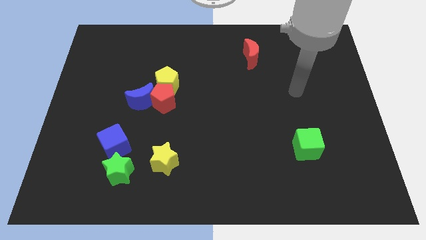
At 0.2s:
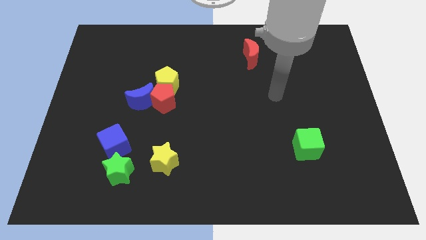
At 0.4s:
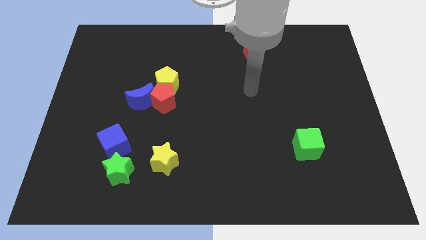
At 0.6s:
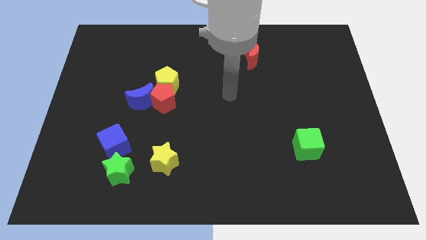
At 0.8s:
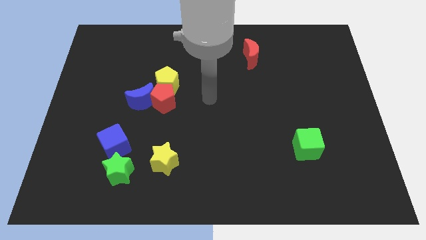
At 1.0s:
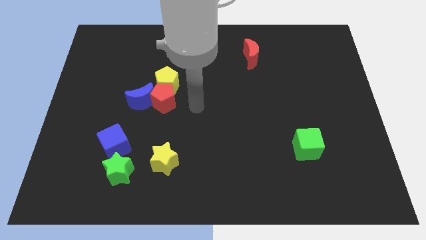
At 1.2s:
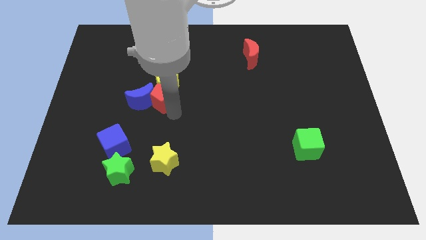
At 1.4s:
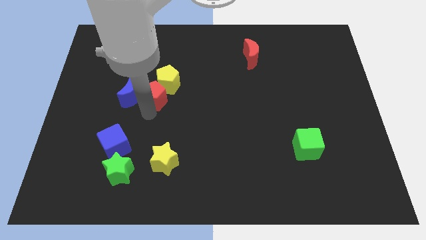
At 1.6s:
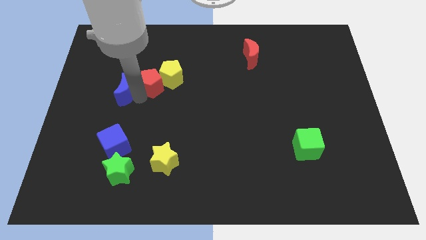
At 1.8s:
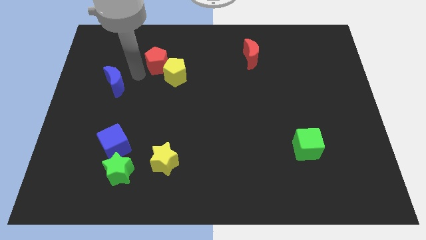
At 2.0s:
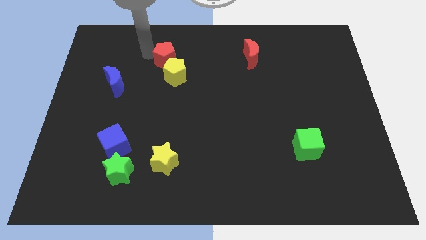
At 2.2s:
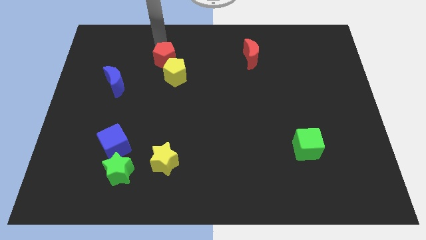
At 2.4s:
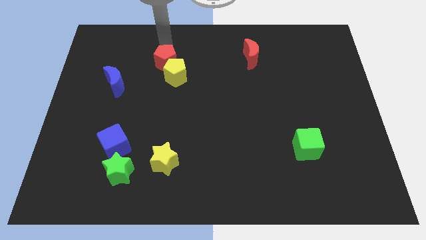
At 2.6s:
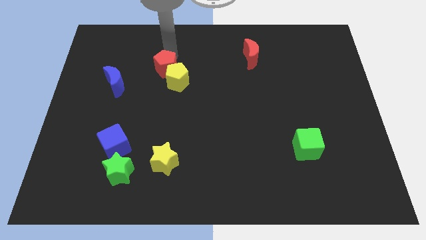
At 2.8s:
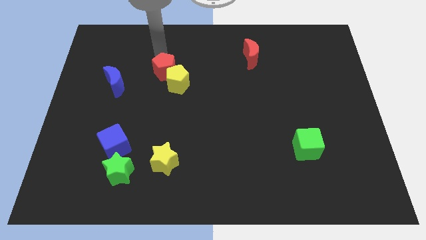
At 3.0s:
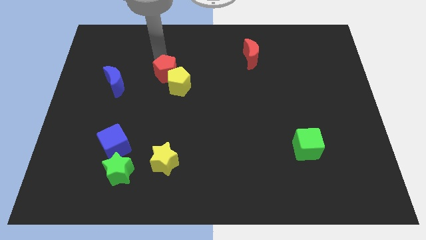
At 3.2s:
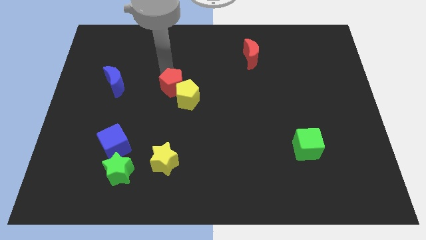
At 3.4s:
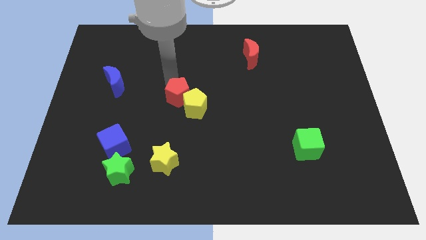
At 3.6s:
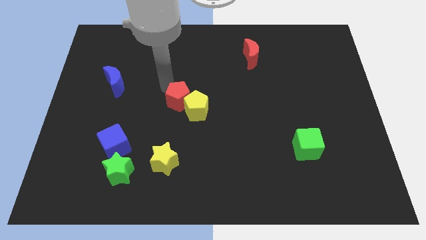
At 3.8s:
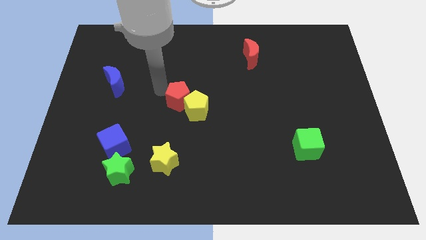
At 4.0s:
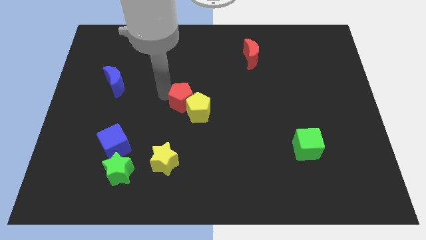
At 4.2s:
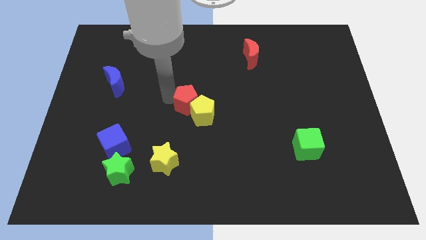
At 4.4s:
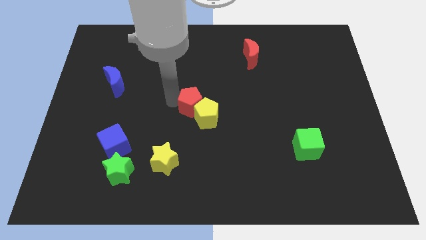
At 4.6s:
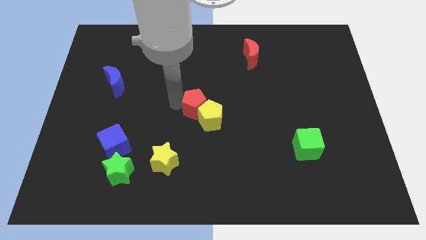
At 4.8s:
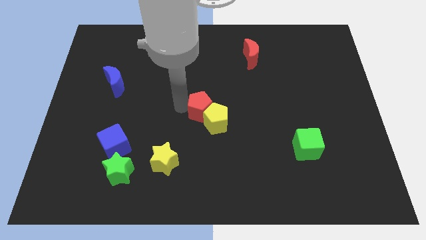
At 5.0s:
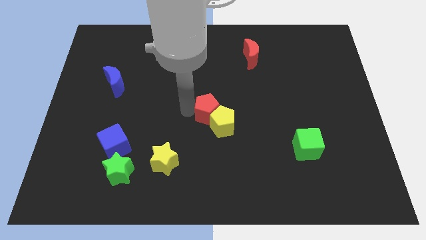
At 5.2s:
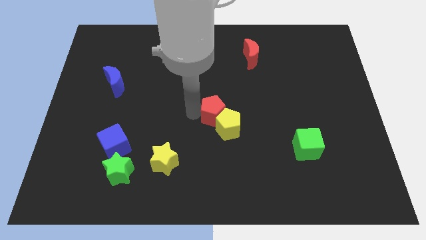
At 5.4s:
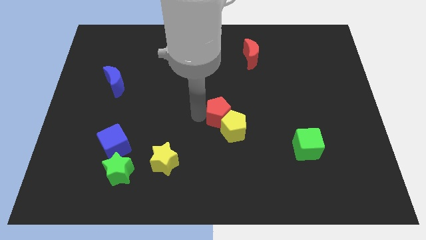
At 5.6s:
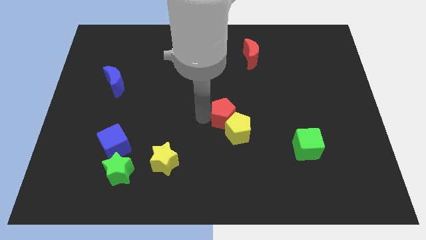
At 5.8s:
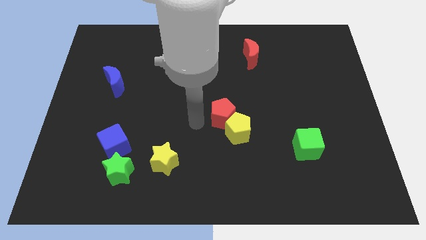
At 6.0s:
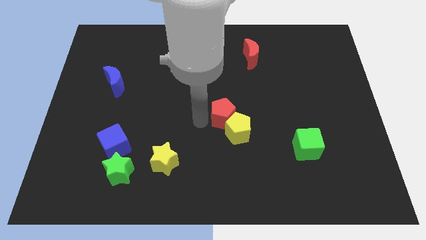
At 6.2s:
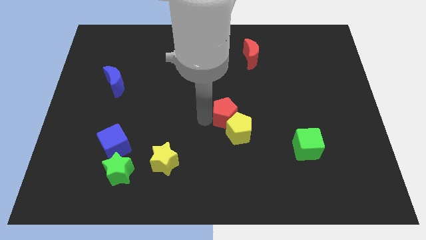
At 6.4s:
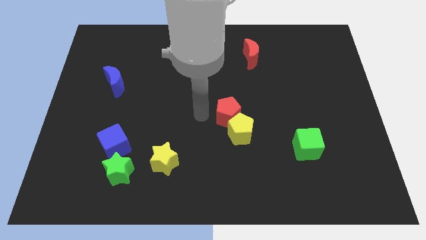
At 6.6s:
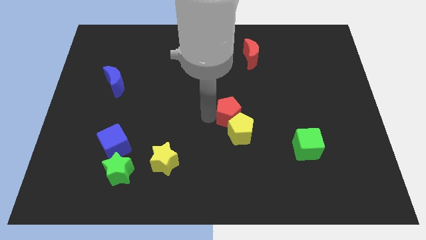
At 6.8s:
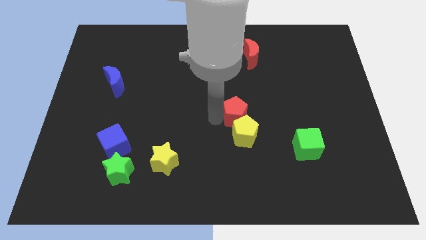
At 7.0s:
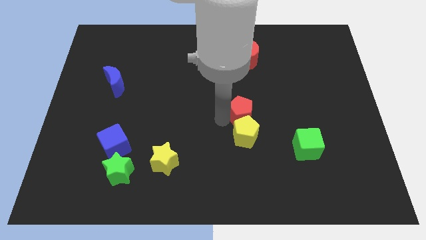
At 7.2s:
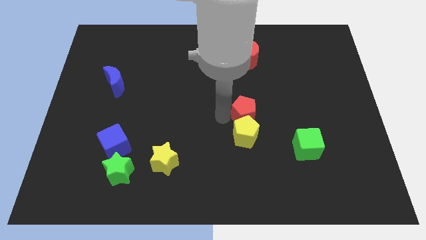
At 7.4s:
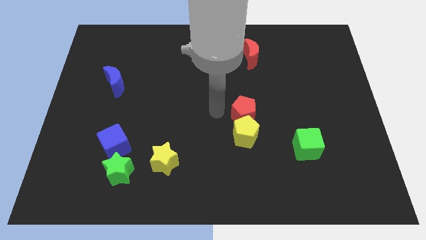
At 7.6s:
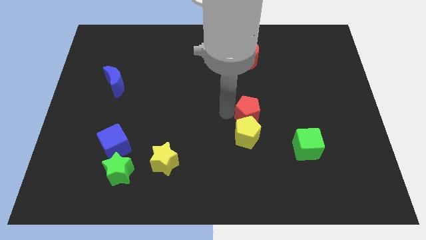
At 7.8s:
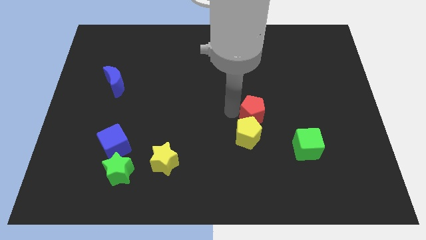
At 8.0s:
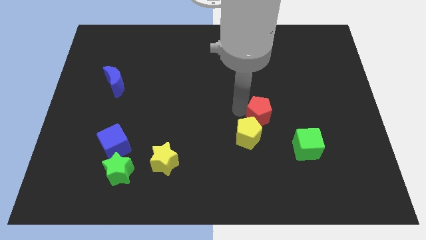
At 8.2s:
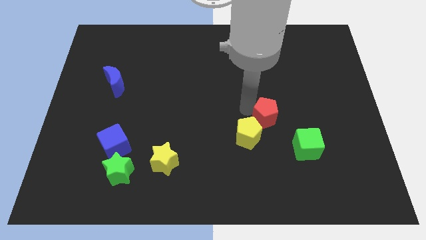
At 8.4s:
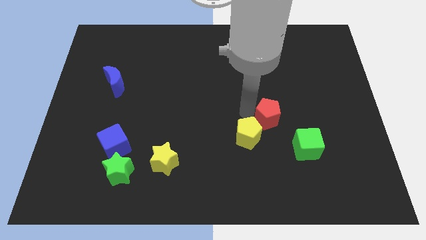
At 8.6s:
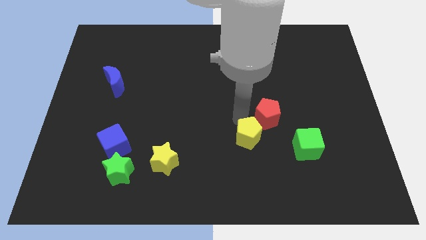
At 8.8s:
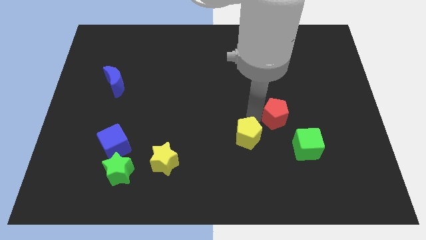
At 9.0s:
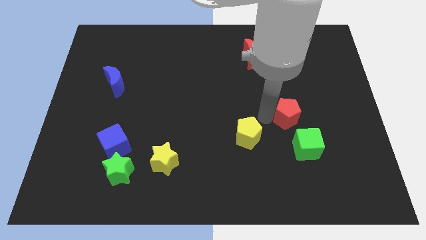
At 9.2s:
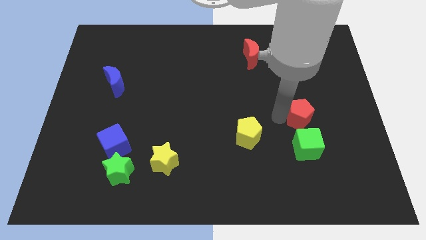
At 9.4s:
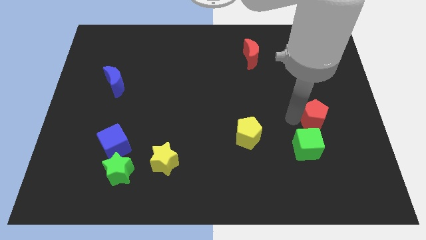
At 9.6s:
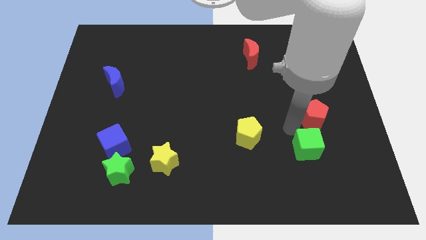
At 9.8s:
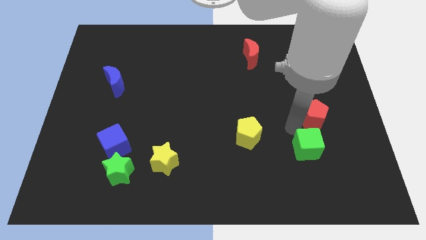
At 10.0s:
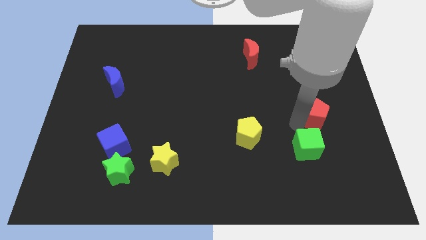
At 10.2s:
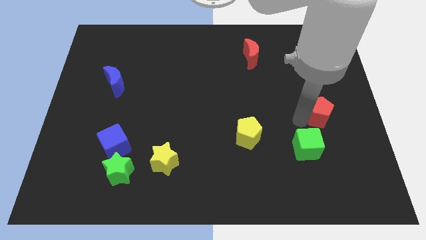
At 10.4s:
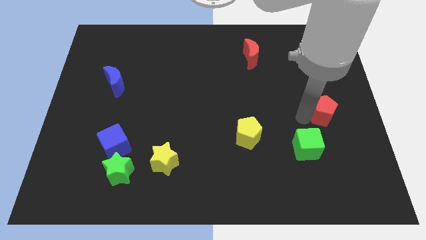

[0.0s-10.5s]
push the red pentagon to the right side
